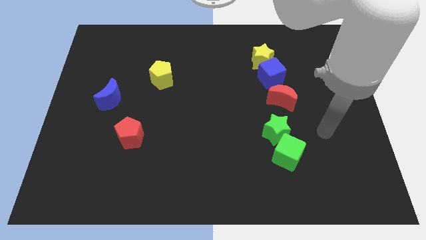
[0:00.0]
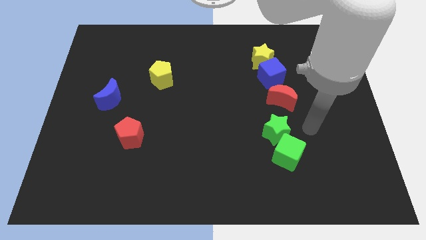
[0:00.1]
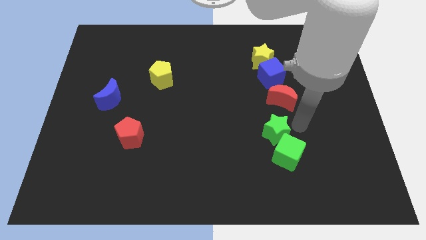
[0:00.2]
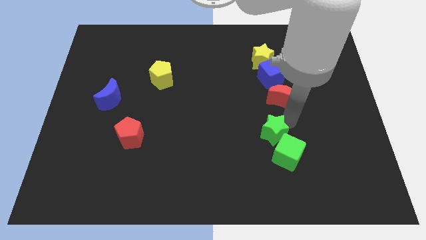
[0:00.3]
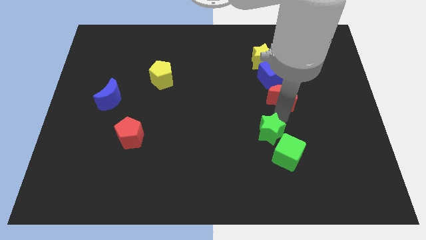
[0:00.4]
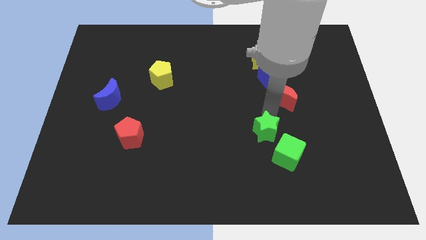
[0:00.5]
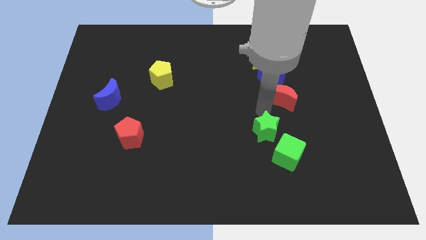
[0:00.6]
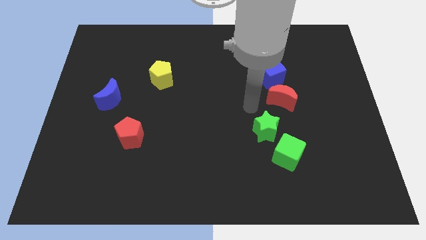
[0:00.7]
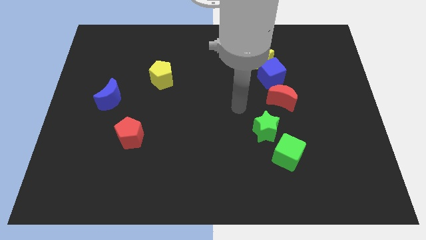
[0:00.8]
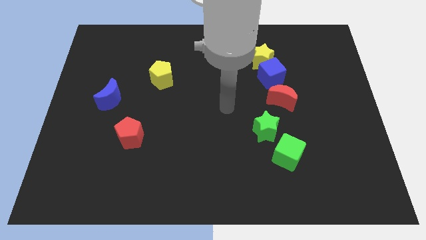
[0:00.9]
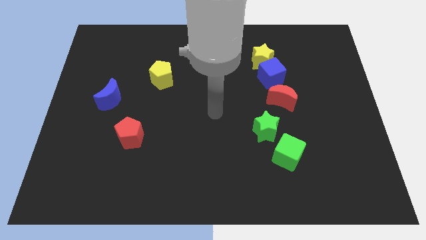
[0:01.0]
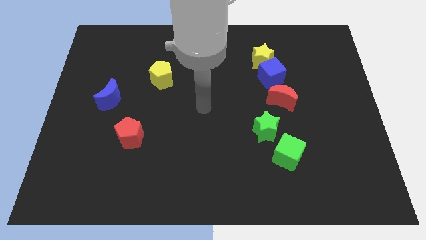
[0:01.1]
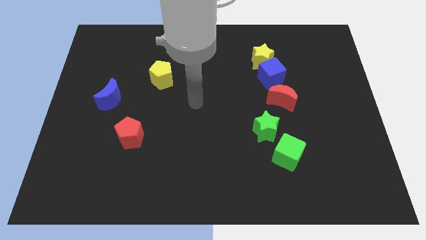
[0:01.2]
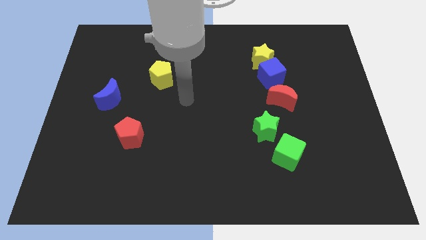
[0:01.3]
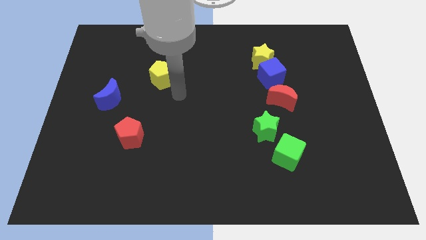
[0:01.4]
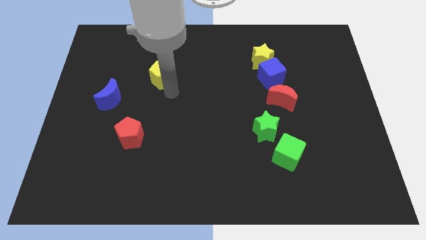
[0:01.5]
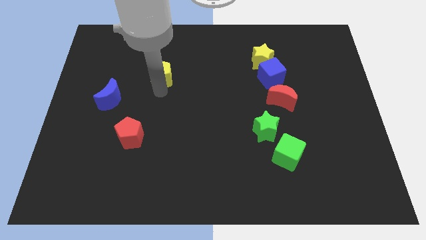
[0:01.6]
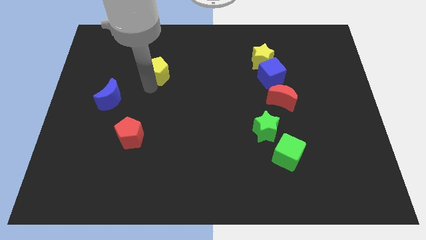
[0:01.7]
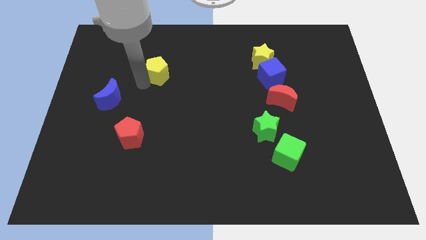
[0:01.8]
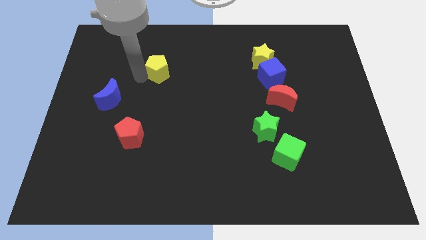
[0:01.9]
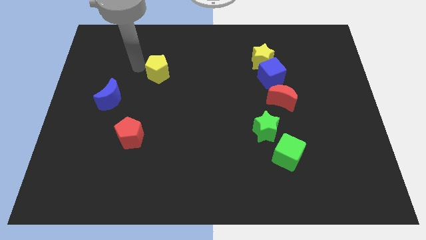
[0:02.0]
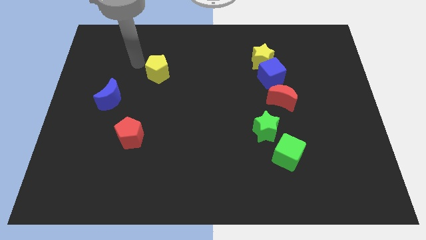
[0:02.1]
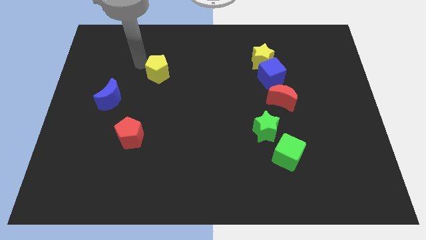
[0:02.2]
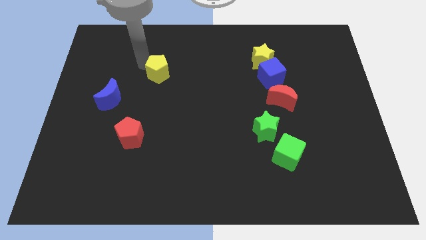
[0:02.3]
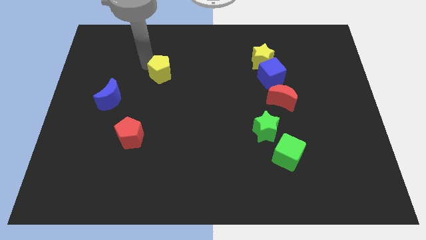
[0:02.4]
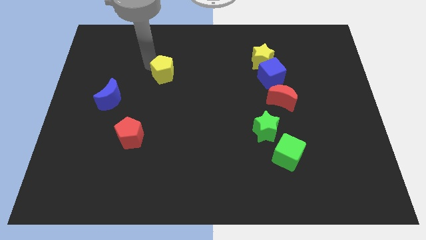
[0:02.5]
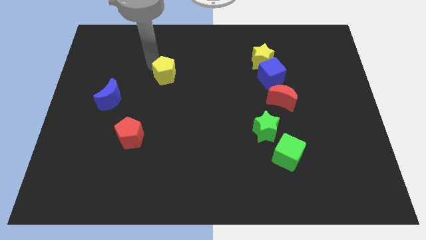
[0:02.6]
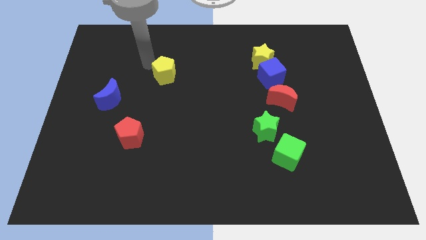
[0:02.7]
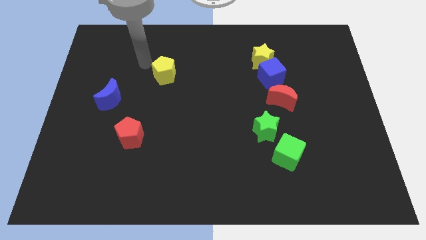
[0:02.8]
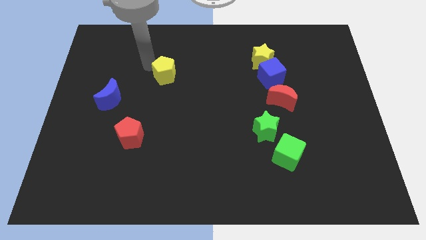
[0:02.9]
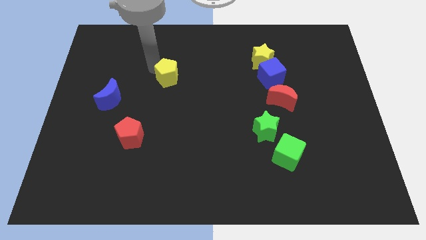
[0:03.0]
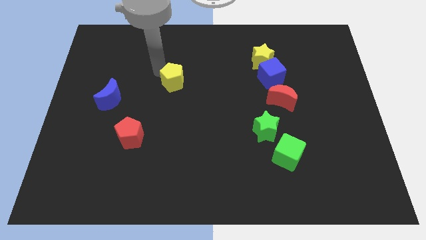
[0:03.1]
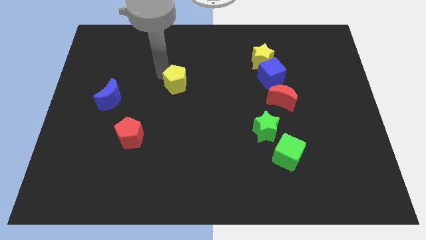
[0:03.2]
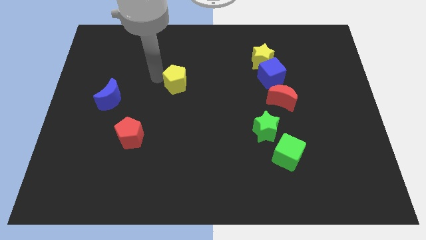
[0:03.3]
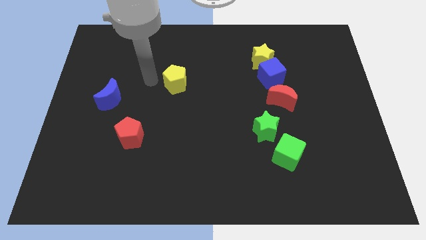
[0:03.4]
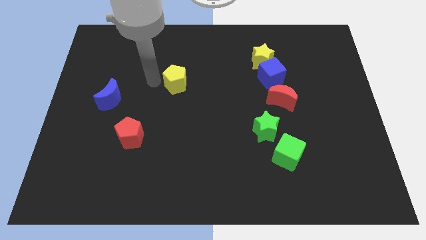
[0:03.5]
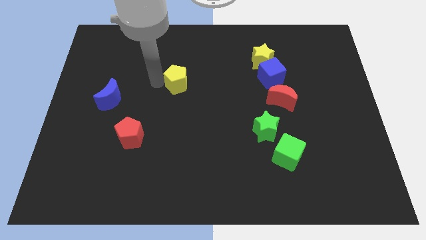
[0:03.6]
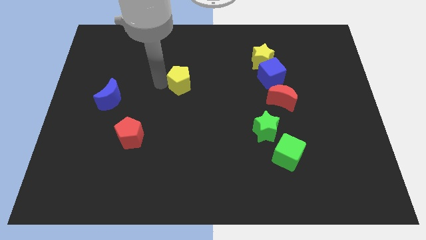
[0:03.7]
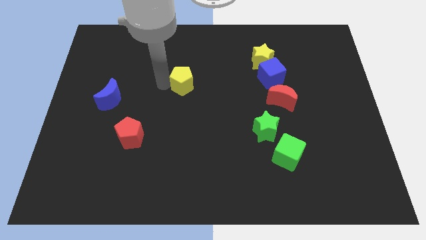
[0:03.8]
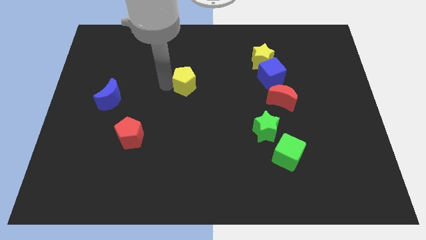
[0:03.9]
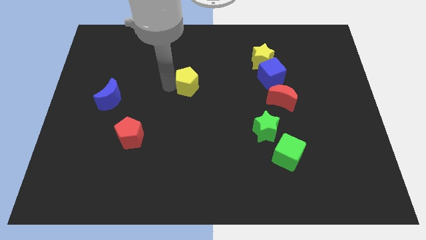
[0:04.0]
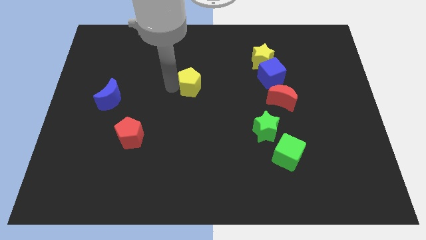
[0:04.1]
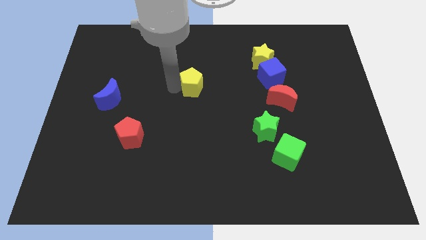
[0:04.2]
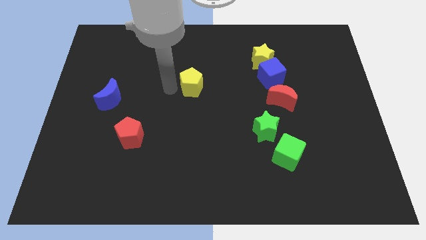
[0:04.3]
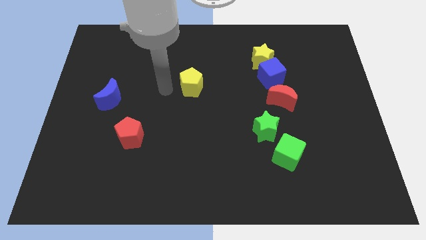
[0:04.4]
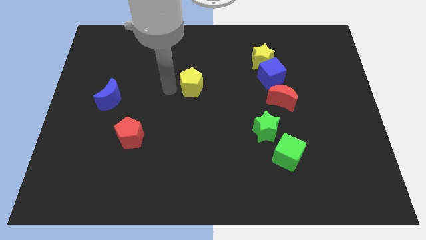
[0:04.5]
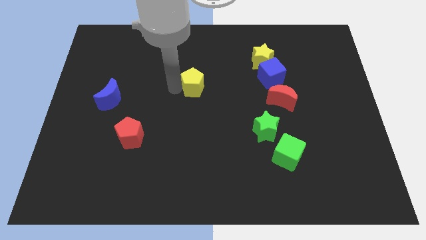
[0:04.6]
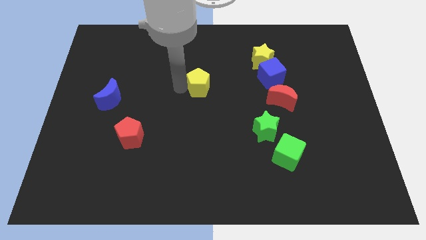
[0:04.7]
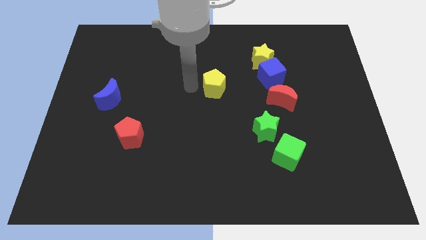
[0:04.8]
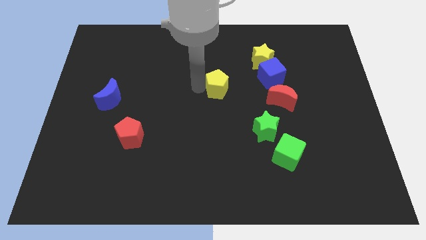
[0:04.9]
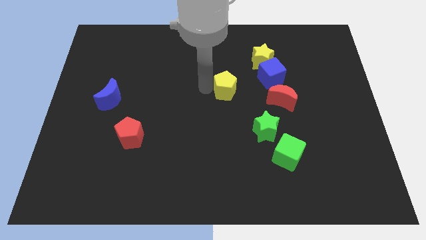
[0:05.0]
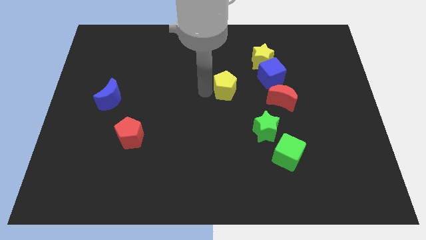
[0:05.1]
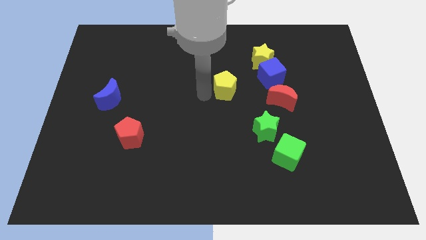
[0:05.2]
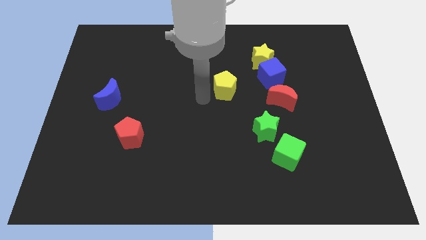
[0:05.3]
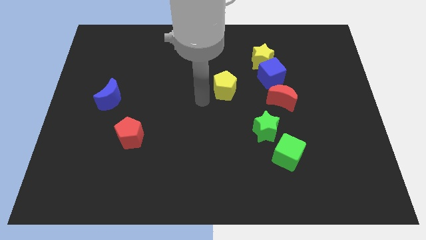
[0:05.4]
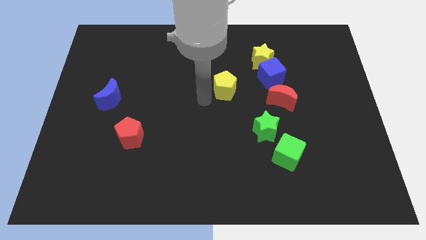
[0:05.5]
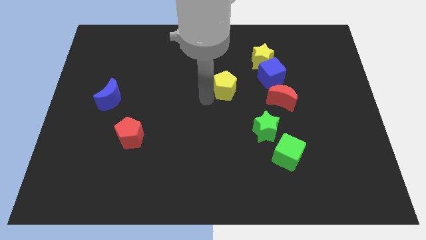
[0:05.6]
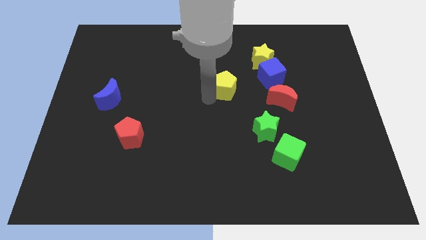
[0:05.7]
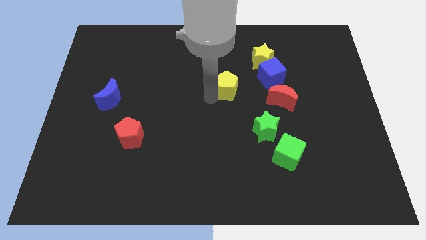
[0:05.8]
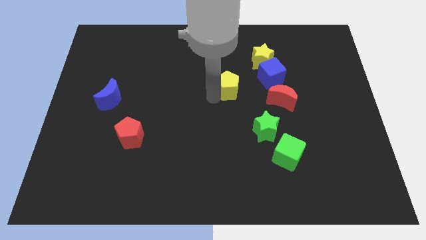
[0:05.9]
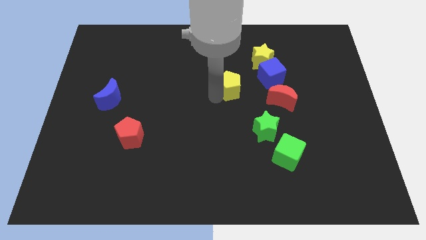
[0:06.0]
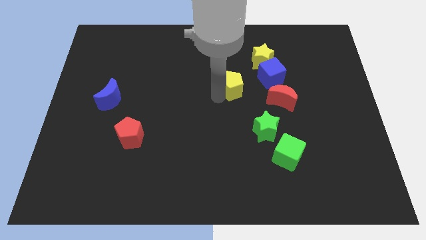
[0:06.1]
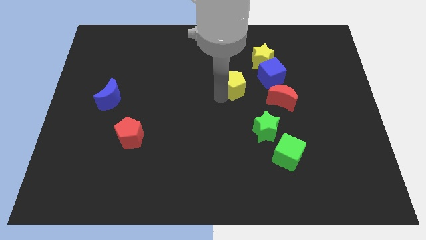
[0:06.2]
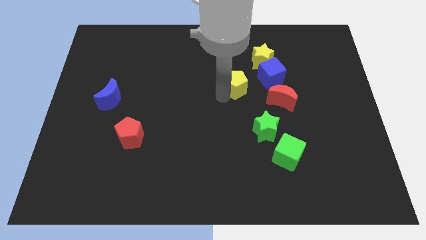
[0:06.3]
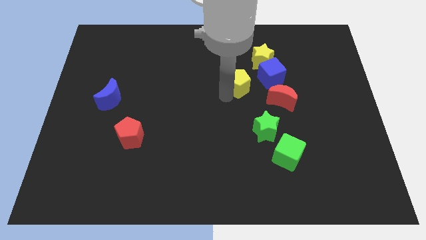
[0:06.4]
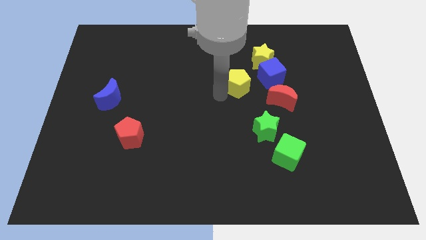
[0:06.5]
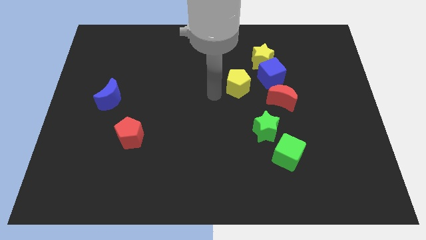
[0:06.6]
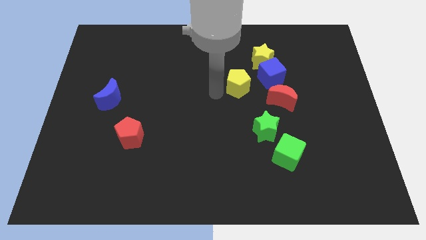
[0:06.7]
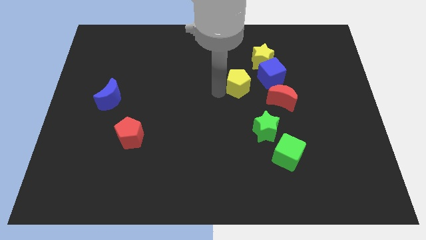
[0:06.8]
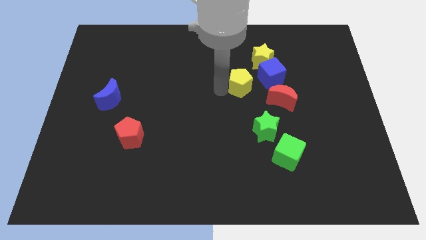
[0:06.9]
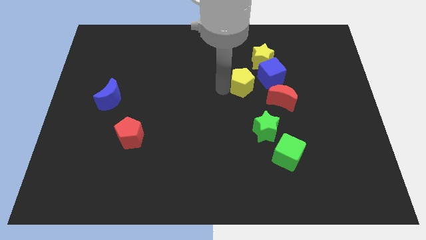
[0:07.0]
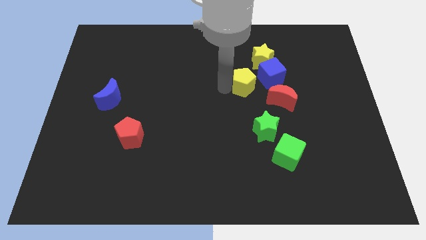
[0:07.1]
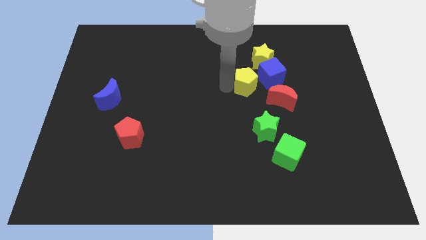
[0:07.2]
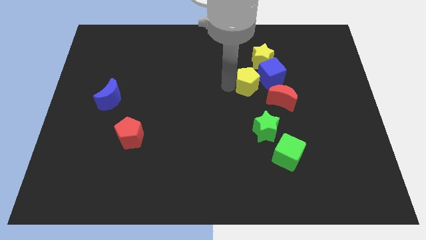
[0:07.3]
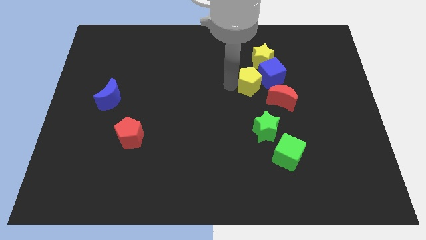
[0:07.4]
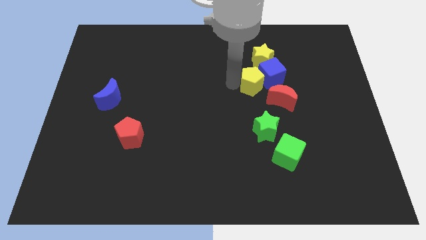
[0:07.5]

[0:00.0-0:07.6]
move the yellow pentagon close to the blue cube
